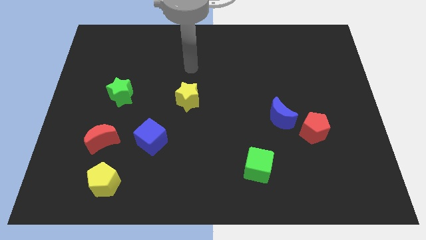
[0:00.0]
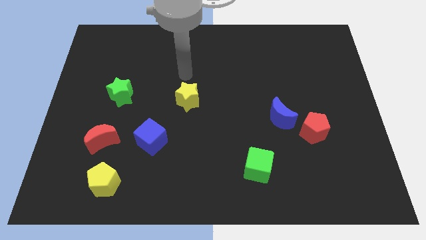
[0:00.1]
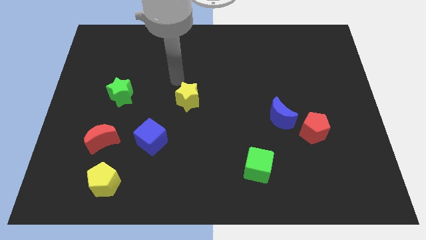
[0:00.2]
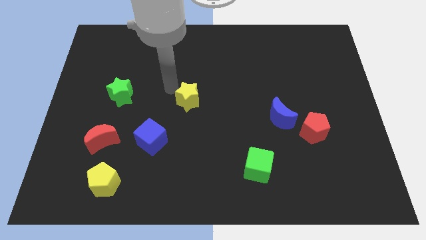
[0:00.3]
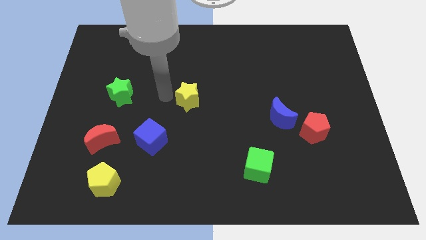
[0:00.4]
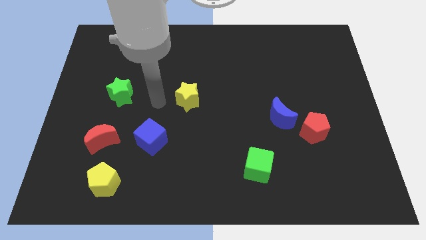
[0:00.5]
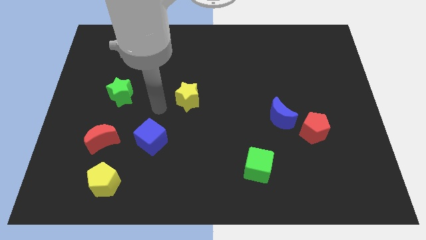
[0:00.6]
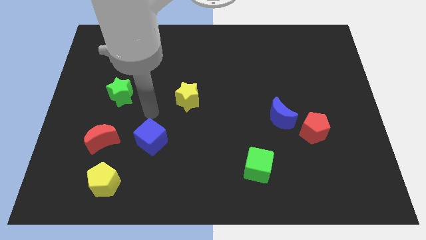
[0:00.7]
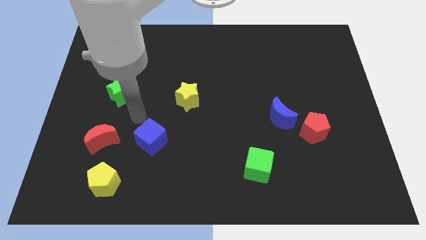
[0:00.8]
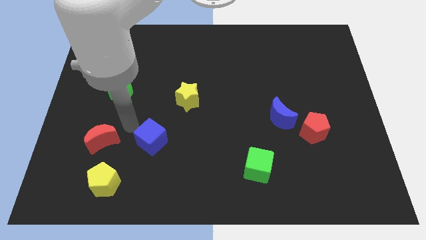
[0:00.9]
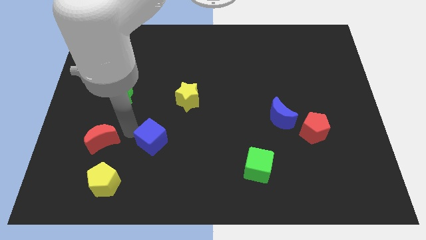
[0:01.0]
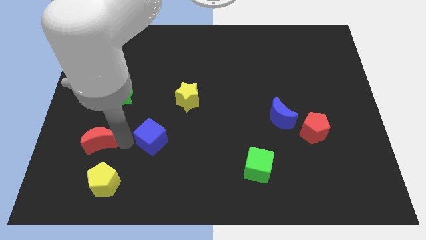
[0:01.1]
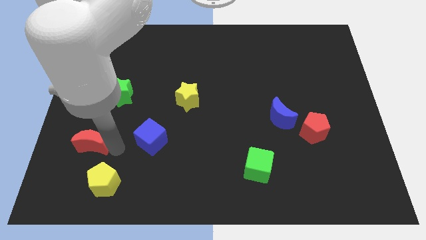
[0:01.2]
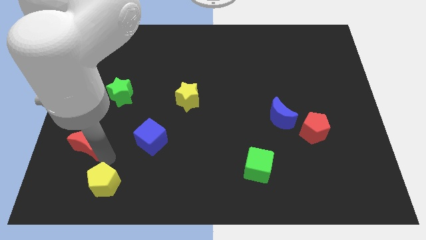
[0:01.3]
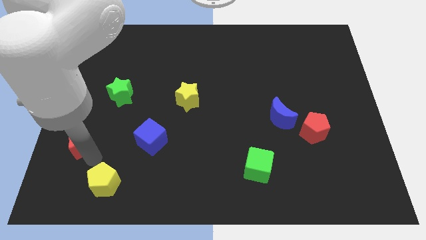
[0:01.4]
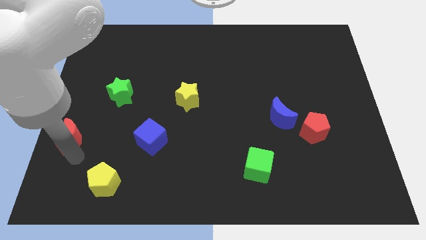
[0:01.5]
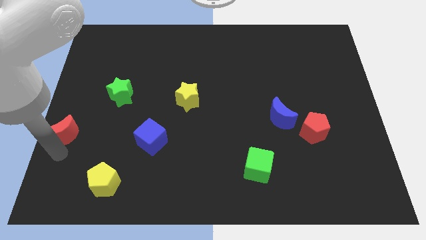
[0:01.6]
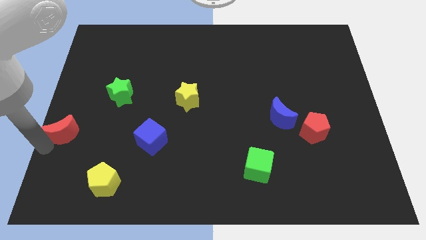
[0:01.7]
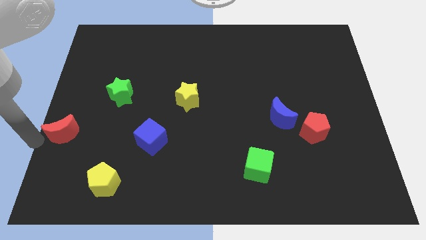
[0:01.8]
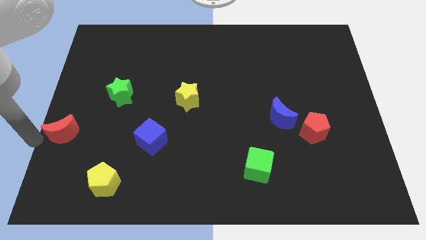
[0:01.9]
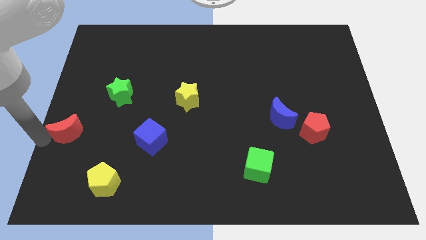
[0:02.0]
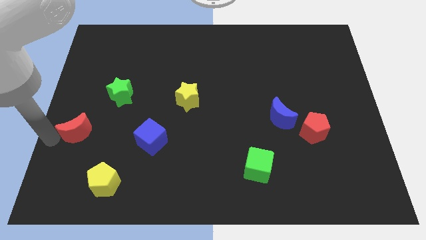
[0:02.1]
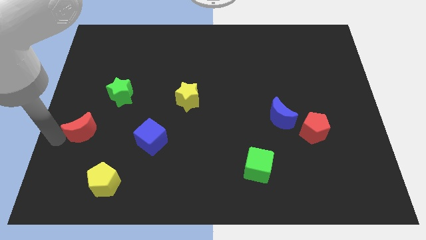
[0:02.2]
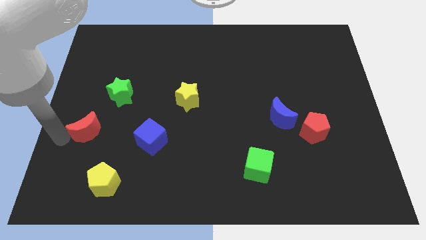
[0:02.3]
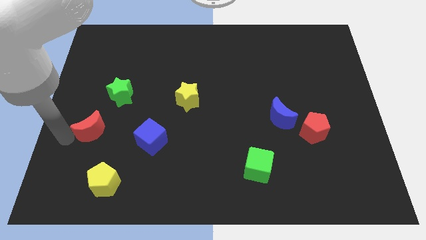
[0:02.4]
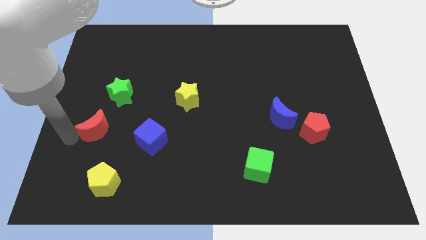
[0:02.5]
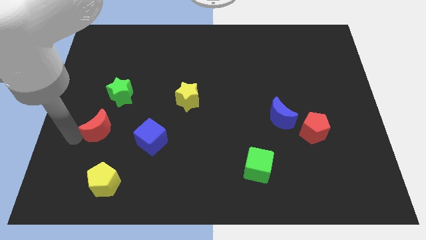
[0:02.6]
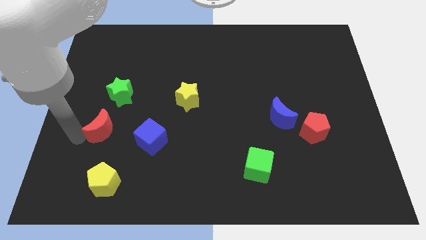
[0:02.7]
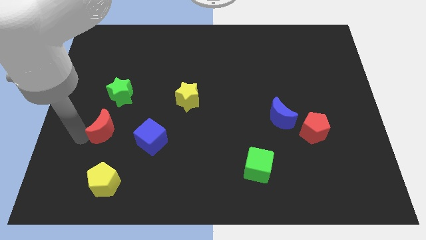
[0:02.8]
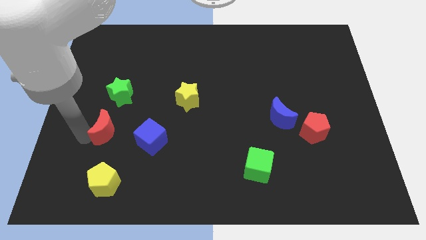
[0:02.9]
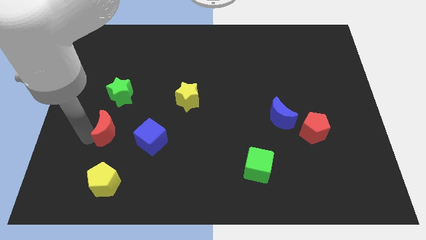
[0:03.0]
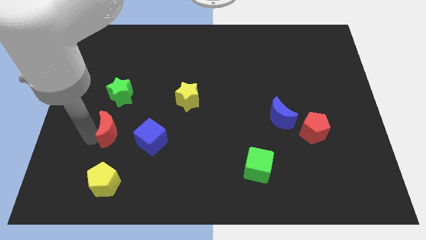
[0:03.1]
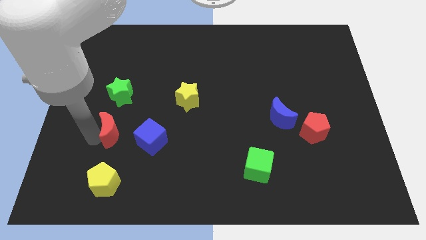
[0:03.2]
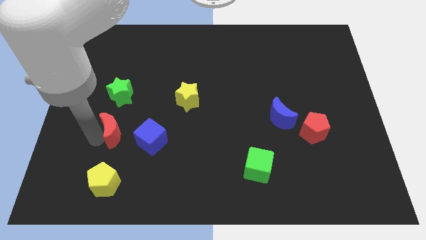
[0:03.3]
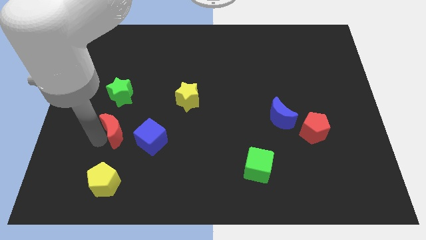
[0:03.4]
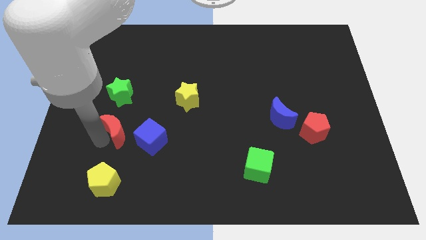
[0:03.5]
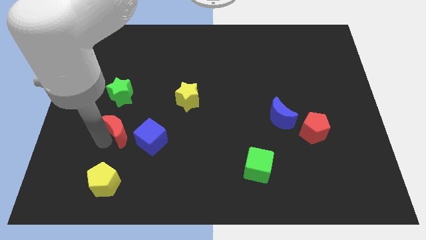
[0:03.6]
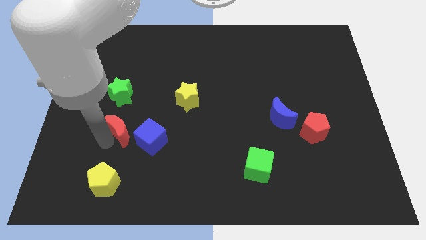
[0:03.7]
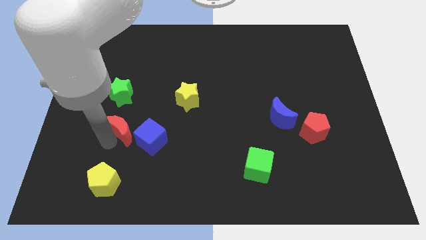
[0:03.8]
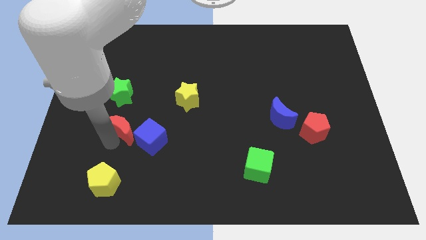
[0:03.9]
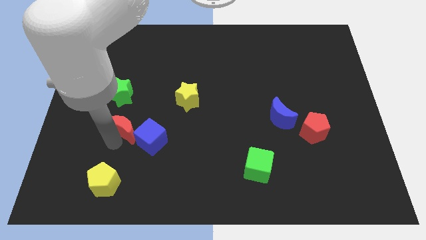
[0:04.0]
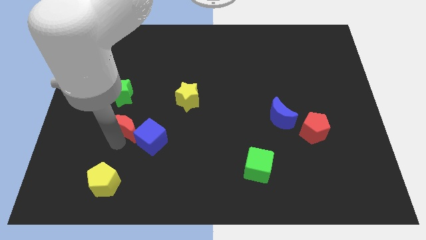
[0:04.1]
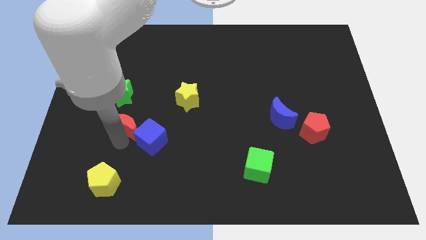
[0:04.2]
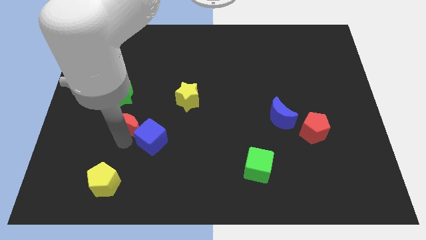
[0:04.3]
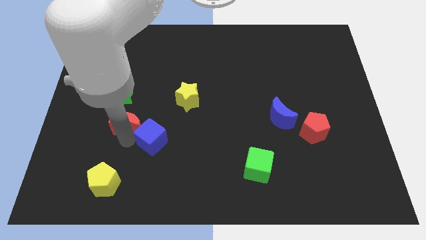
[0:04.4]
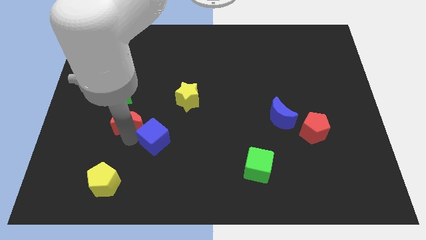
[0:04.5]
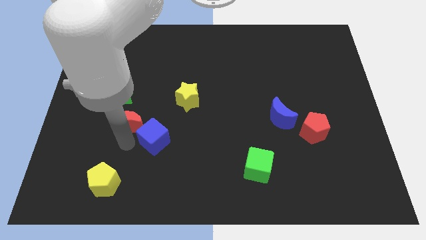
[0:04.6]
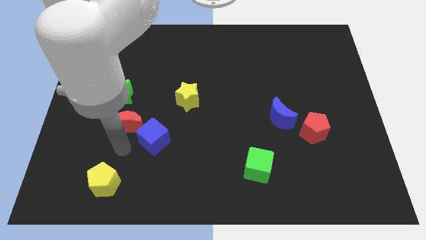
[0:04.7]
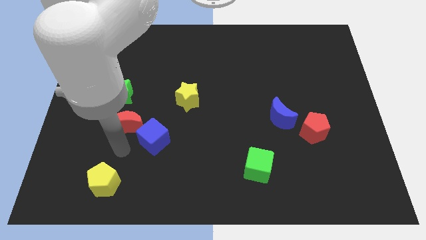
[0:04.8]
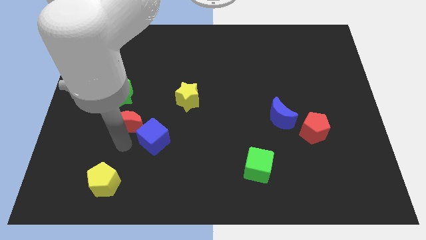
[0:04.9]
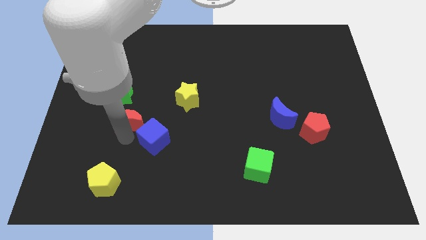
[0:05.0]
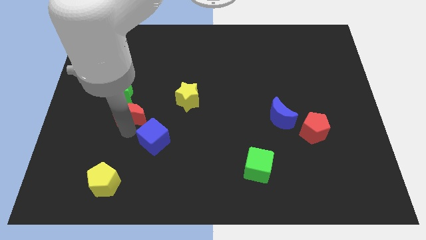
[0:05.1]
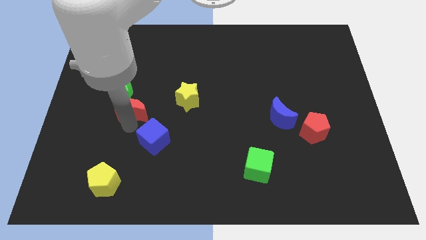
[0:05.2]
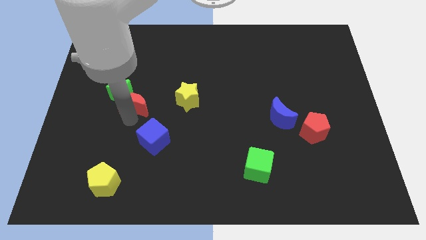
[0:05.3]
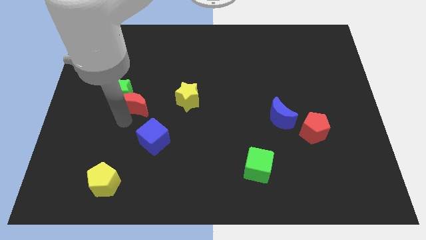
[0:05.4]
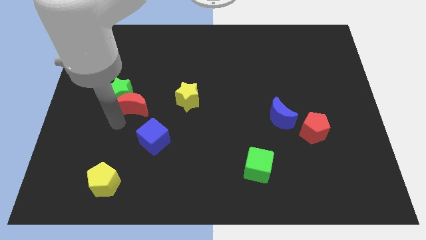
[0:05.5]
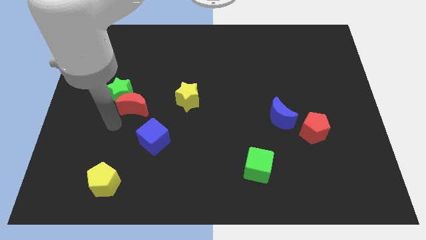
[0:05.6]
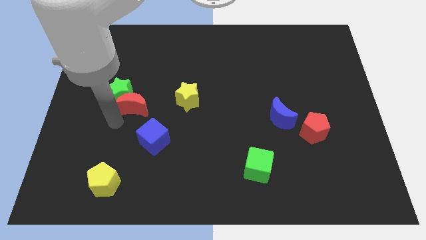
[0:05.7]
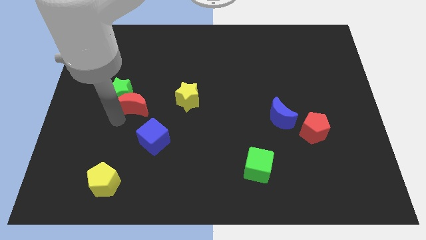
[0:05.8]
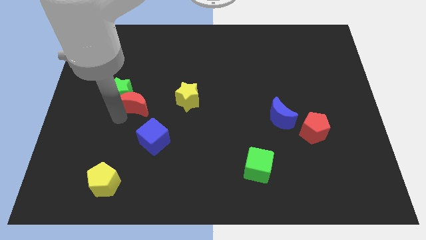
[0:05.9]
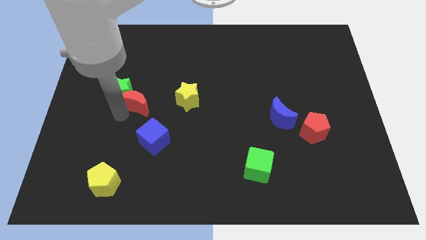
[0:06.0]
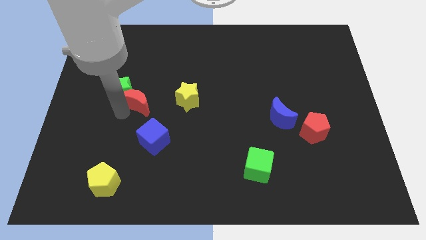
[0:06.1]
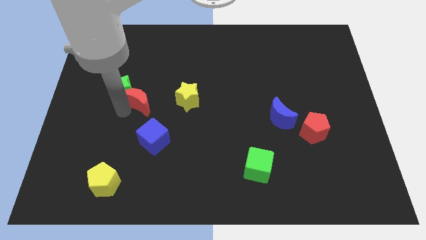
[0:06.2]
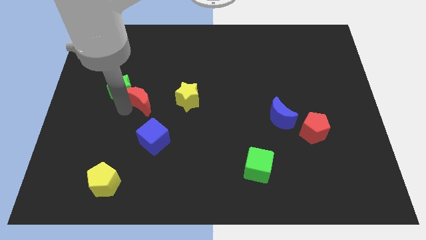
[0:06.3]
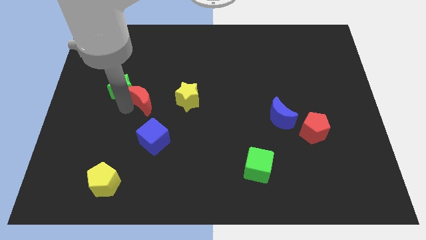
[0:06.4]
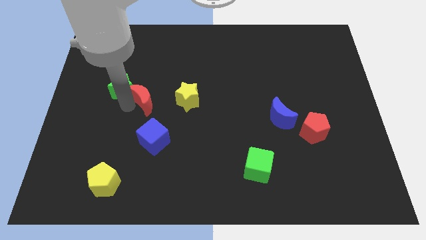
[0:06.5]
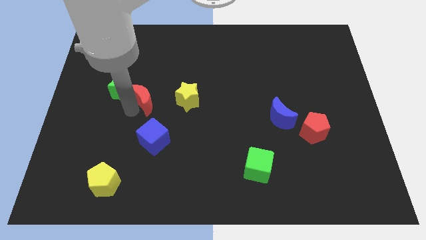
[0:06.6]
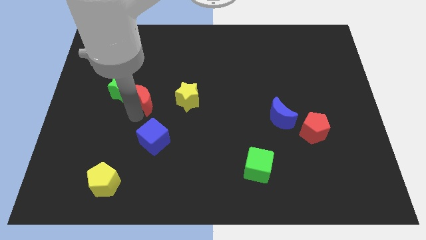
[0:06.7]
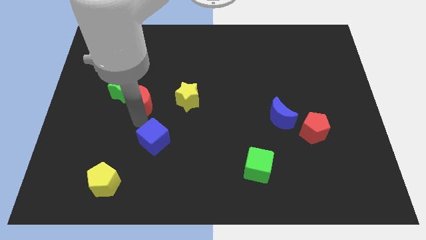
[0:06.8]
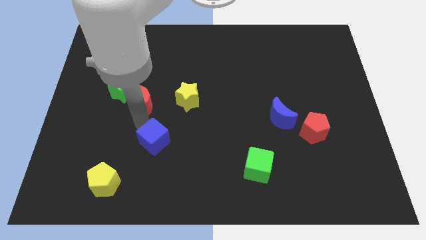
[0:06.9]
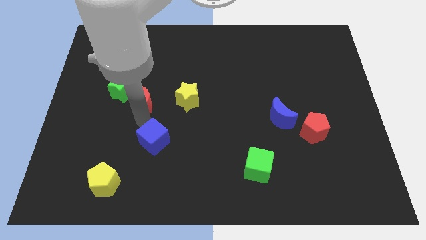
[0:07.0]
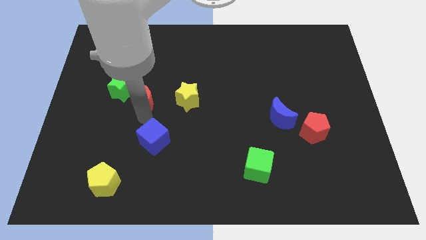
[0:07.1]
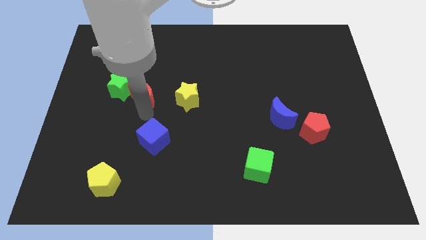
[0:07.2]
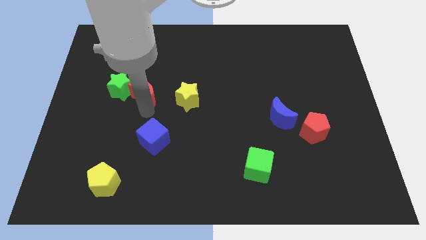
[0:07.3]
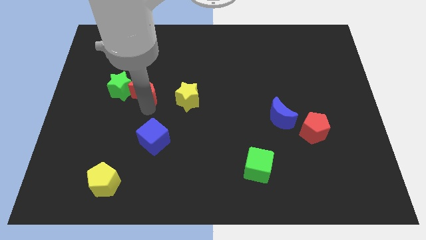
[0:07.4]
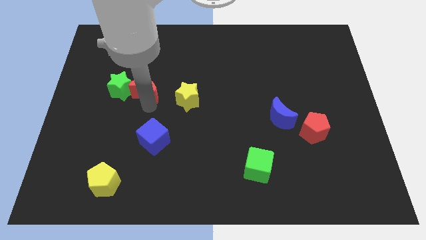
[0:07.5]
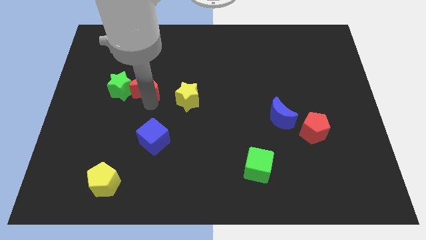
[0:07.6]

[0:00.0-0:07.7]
slide the red moon diagonally up and to the right of the green star
